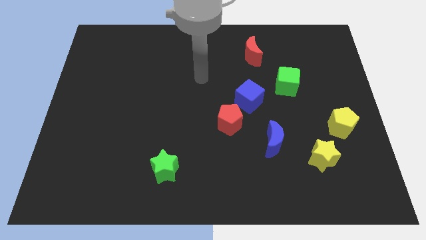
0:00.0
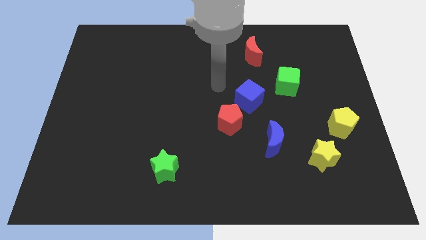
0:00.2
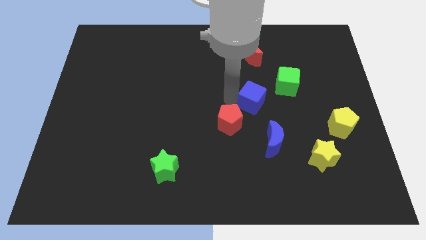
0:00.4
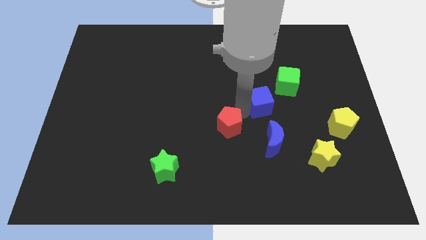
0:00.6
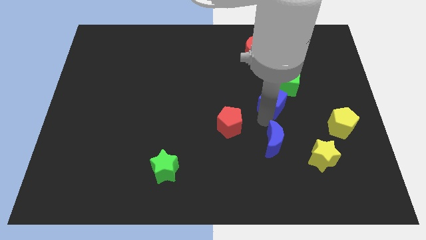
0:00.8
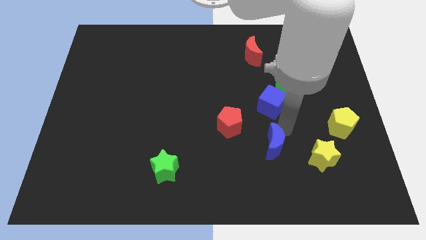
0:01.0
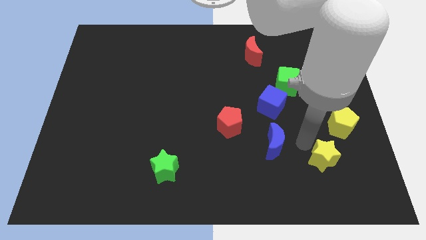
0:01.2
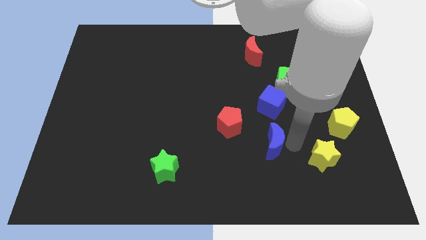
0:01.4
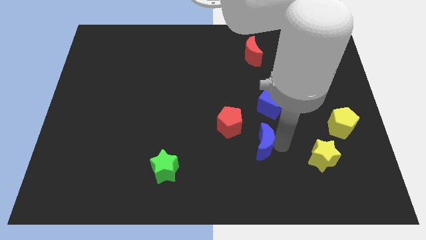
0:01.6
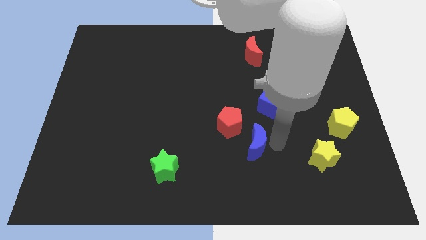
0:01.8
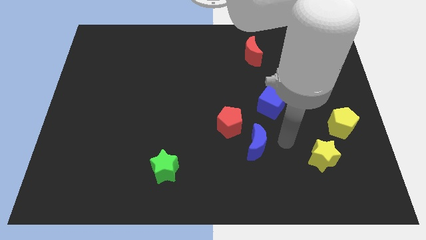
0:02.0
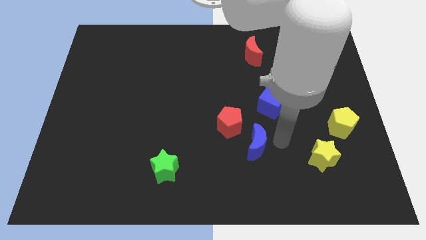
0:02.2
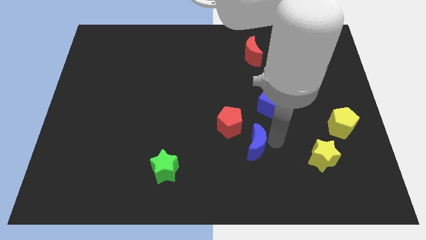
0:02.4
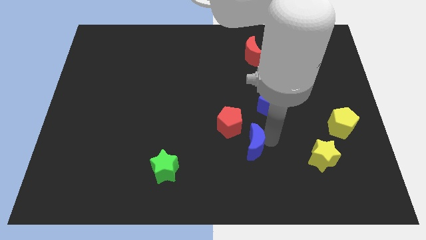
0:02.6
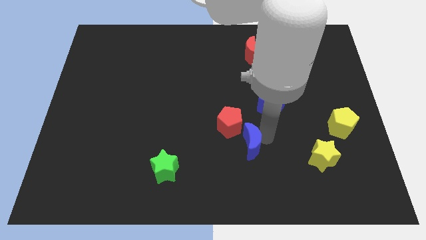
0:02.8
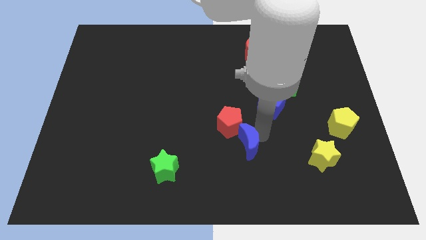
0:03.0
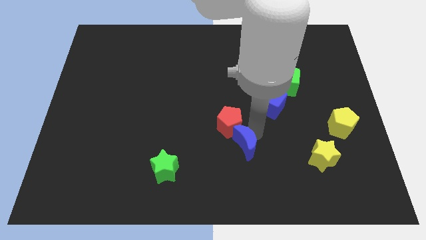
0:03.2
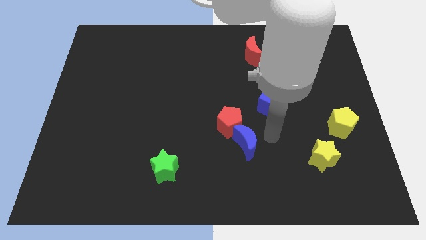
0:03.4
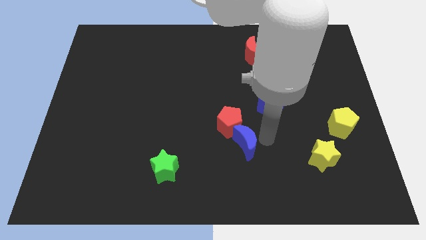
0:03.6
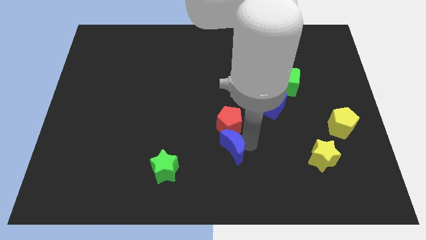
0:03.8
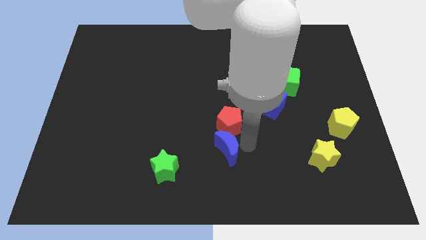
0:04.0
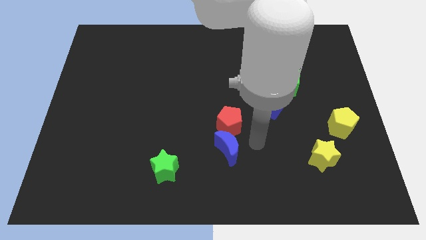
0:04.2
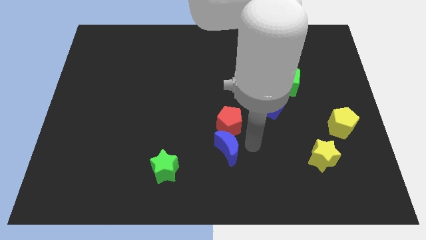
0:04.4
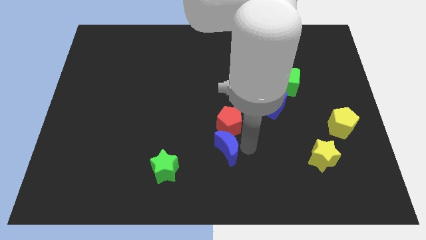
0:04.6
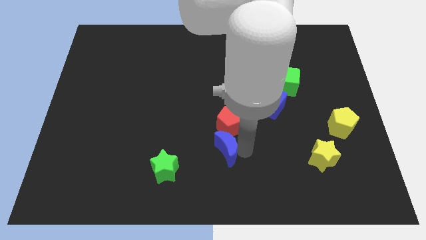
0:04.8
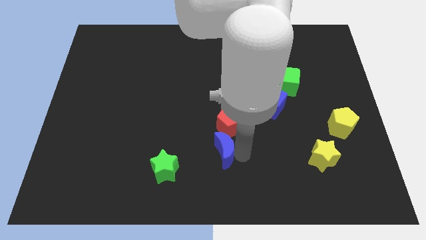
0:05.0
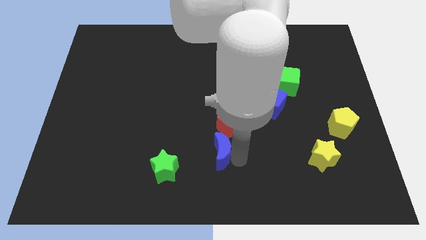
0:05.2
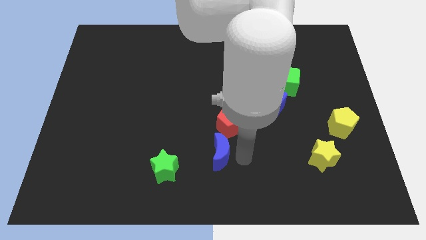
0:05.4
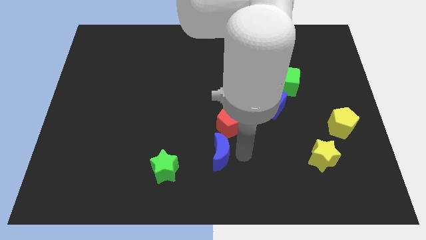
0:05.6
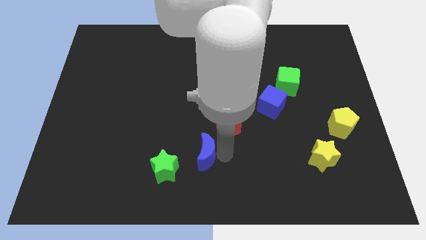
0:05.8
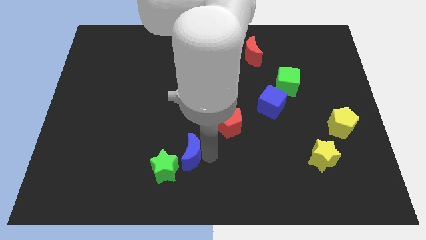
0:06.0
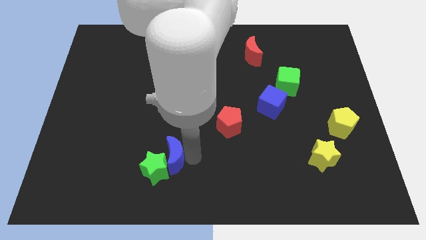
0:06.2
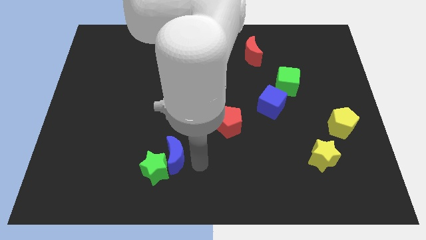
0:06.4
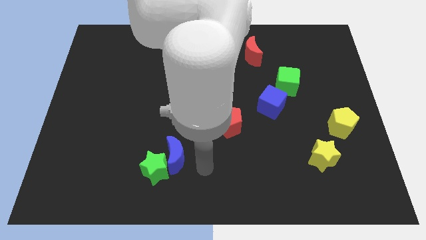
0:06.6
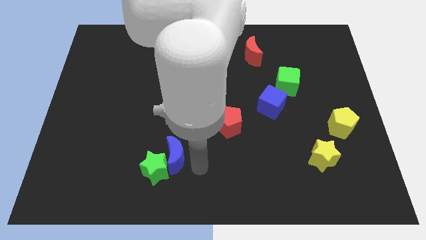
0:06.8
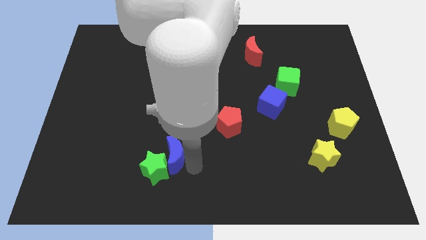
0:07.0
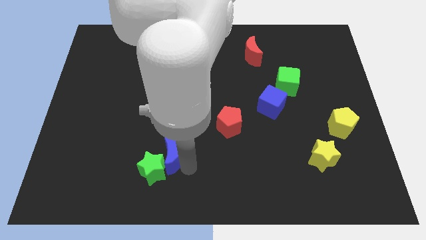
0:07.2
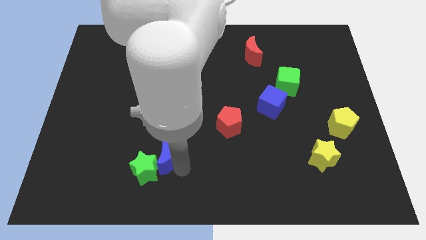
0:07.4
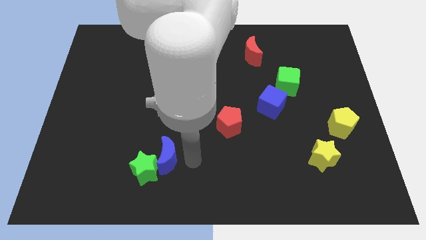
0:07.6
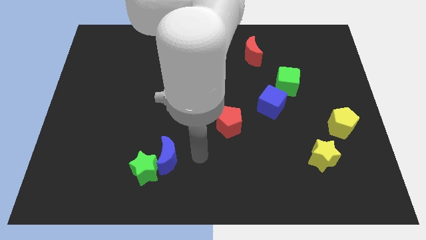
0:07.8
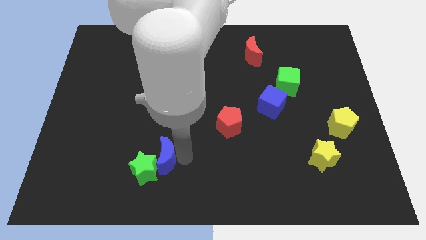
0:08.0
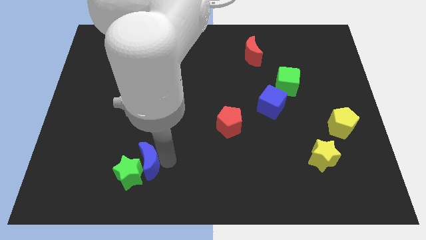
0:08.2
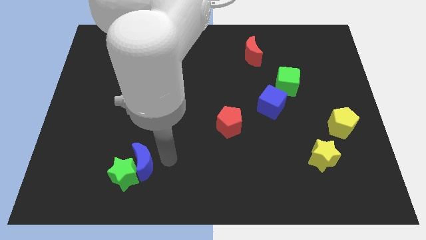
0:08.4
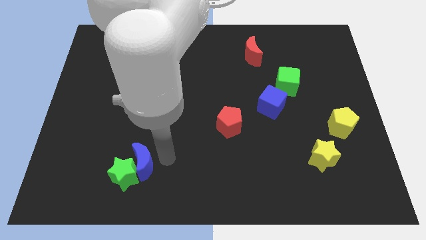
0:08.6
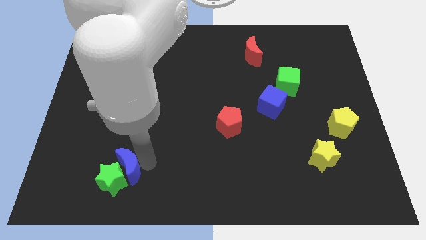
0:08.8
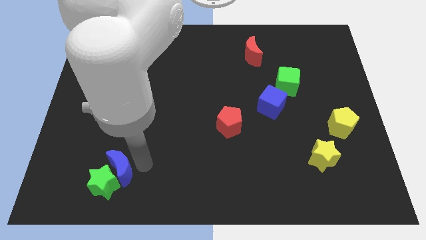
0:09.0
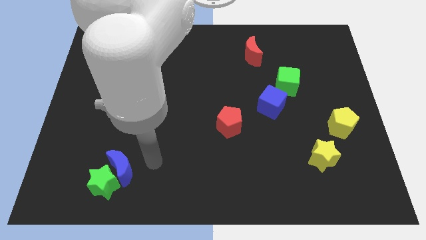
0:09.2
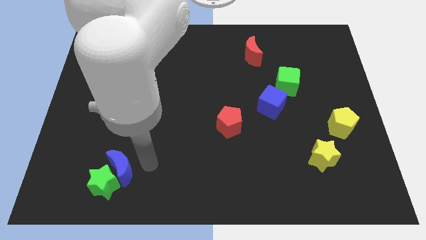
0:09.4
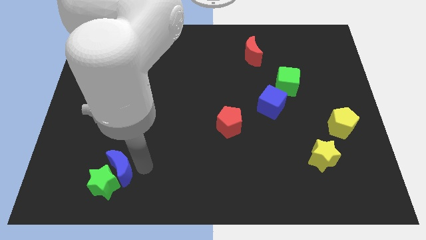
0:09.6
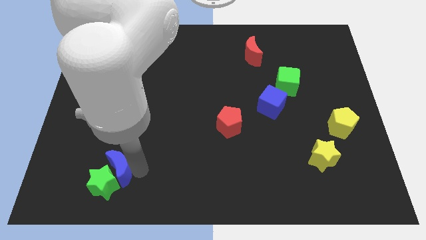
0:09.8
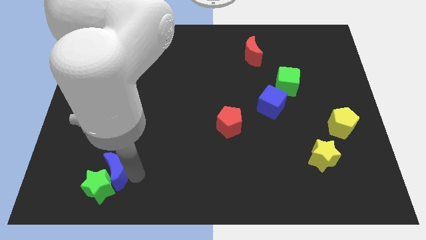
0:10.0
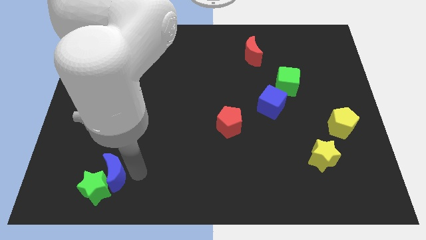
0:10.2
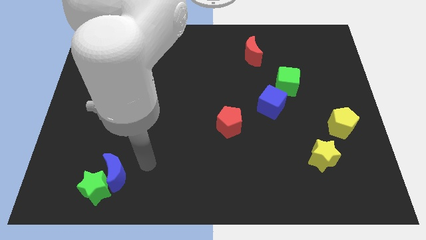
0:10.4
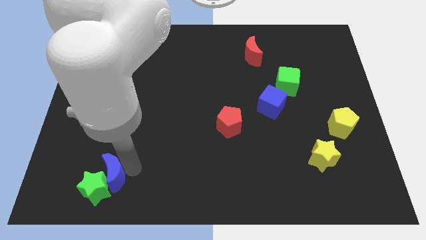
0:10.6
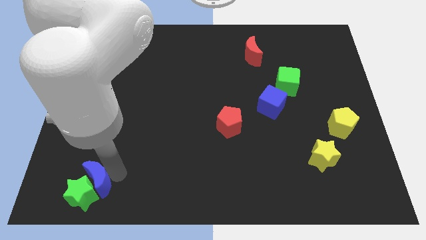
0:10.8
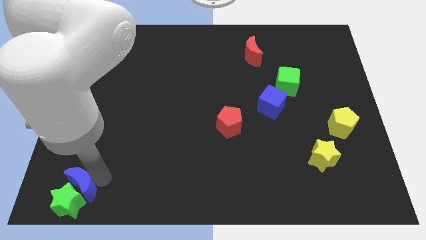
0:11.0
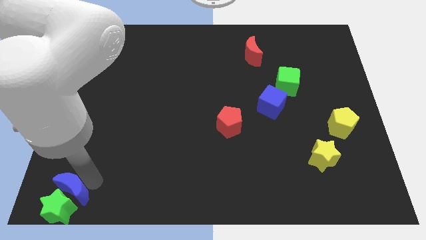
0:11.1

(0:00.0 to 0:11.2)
push the blue moon to the bottom left

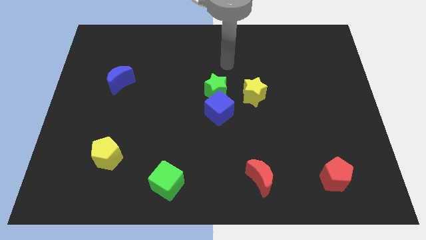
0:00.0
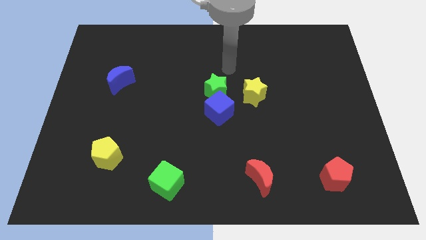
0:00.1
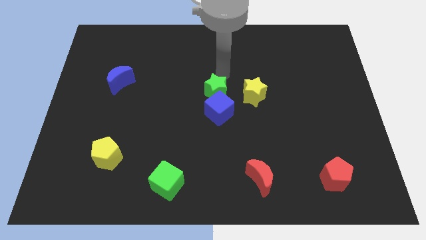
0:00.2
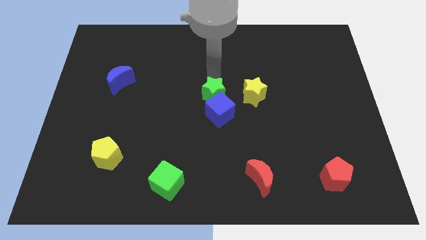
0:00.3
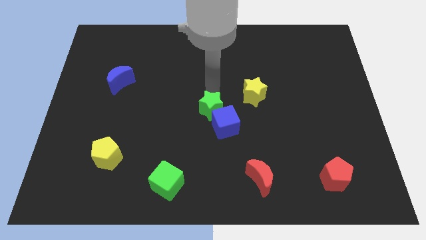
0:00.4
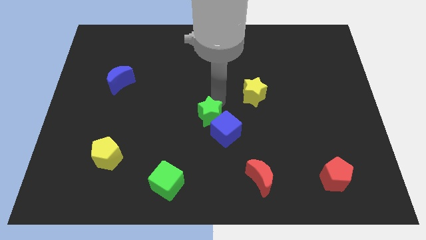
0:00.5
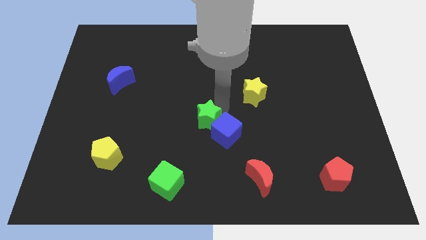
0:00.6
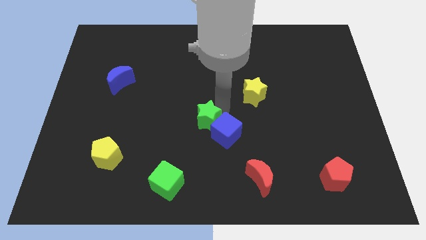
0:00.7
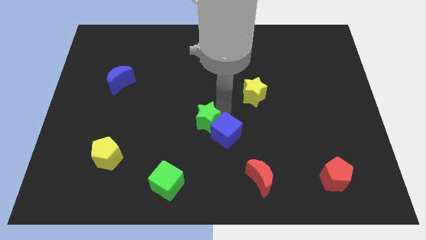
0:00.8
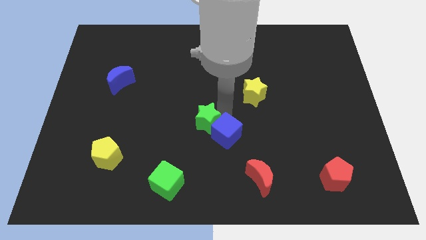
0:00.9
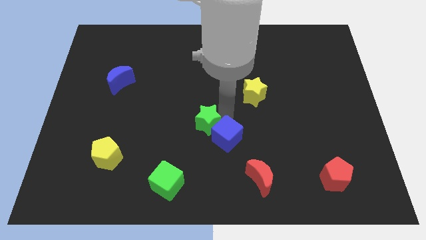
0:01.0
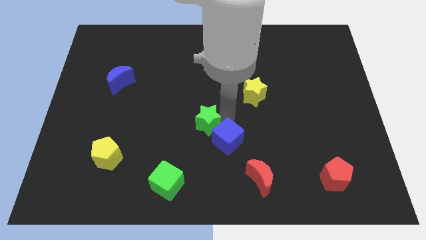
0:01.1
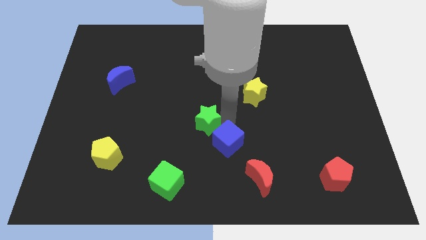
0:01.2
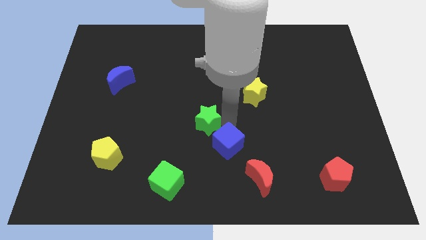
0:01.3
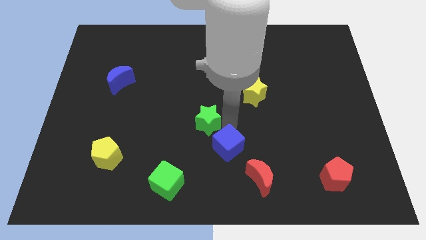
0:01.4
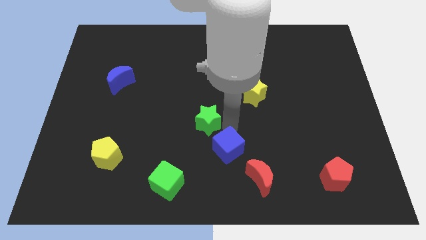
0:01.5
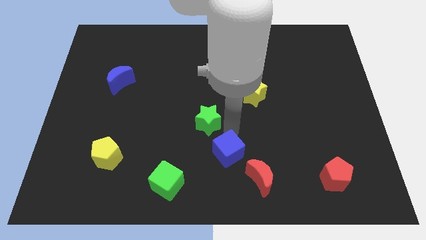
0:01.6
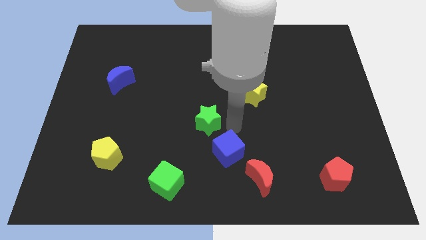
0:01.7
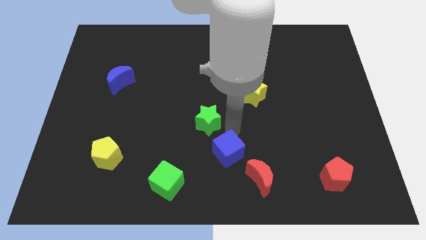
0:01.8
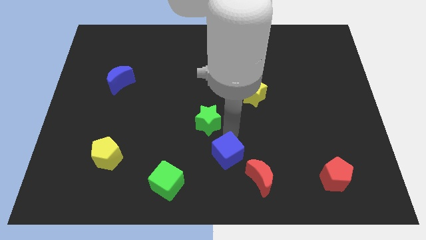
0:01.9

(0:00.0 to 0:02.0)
push the blue cube to the bottom side

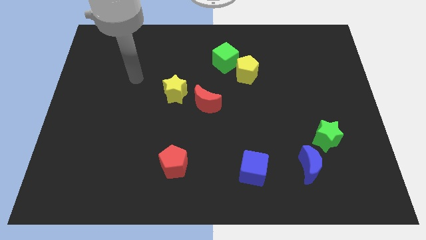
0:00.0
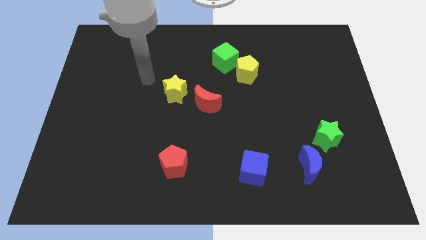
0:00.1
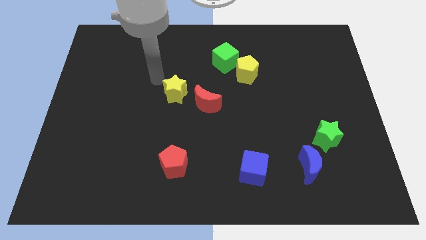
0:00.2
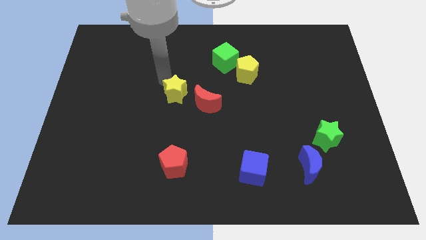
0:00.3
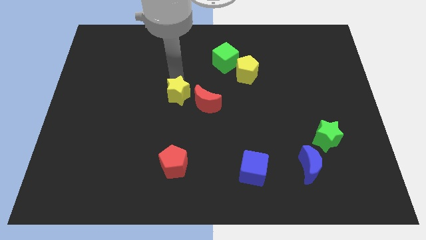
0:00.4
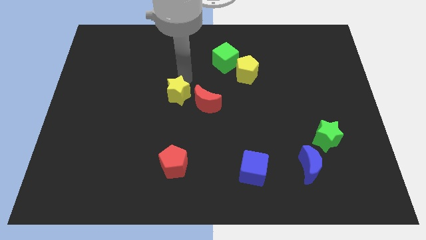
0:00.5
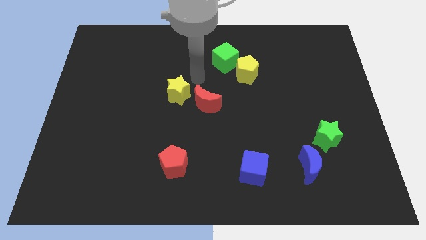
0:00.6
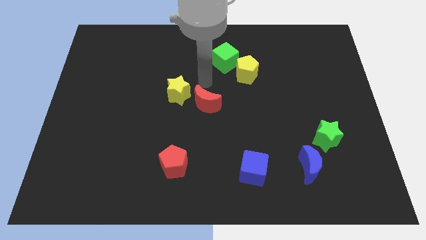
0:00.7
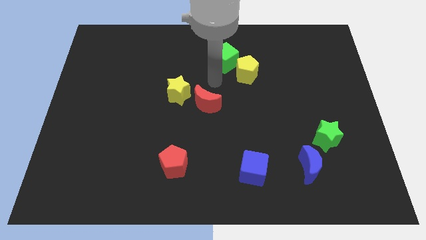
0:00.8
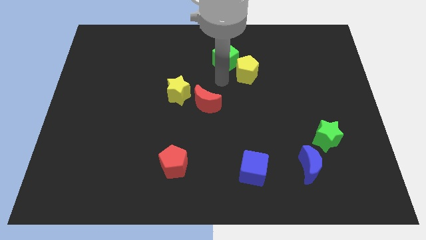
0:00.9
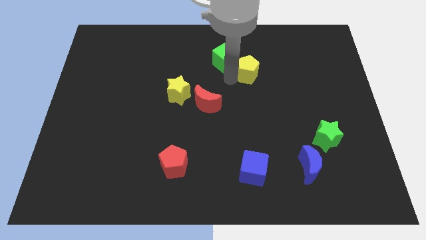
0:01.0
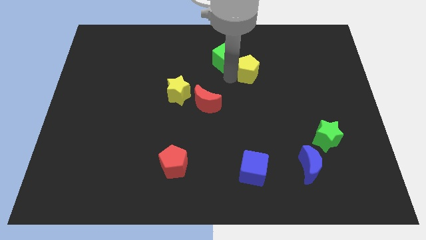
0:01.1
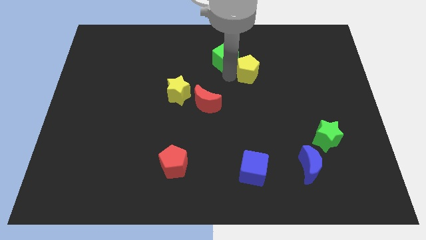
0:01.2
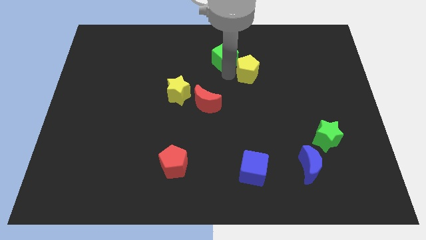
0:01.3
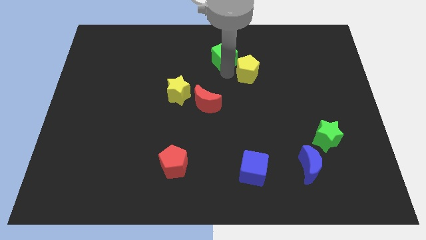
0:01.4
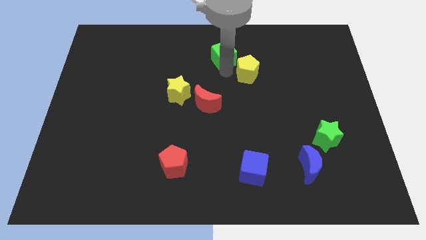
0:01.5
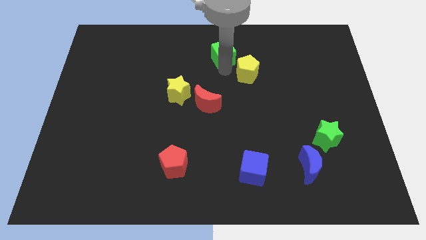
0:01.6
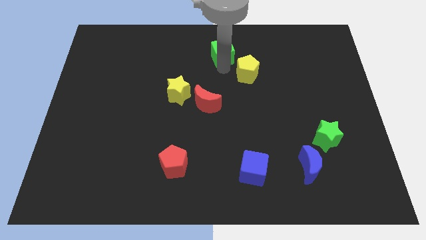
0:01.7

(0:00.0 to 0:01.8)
move the green cube to the towards your base
